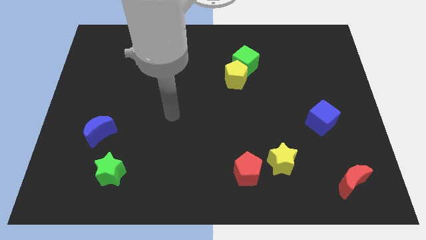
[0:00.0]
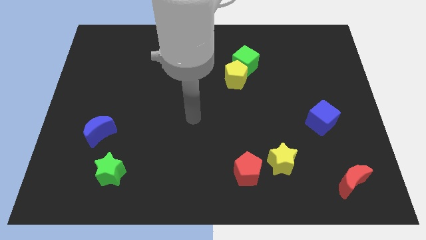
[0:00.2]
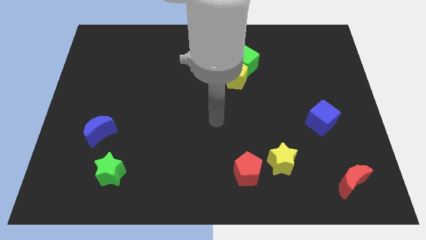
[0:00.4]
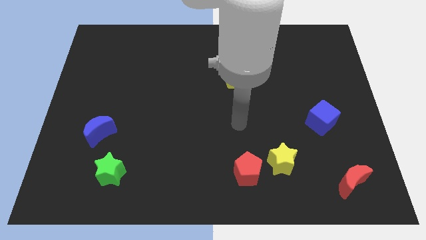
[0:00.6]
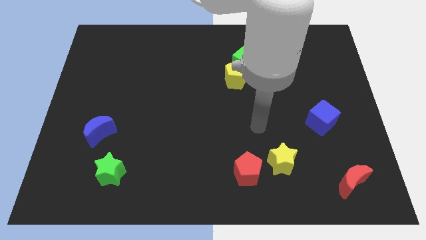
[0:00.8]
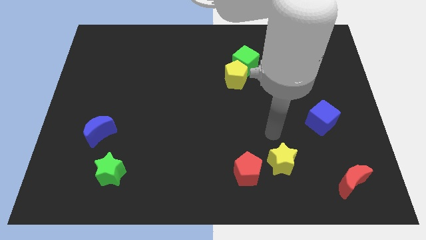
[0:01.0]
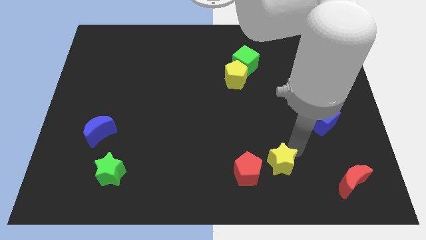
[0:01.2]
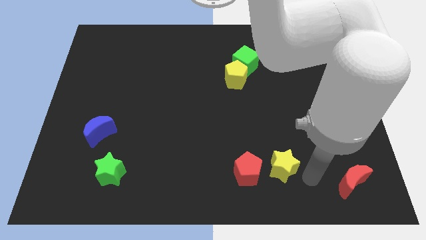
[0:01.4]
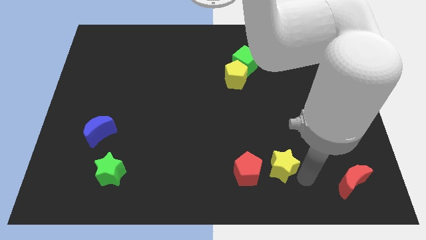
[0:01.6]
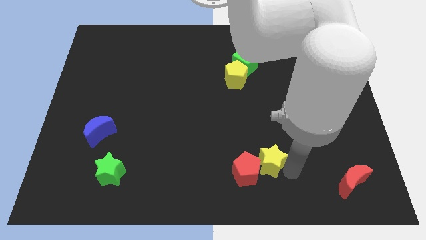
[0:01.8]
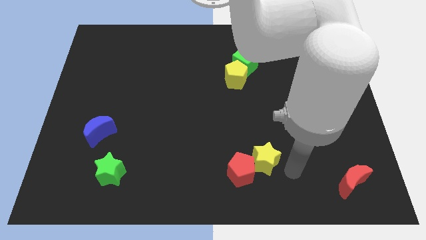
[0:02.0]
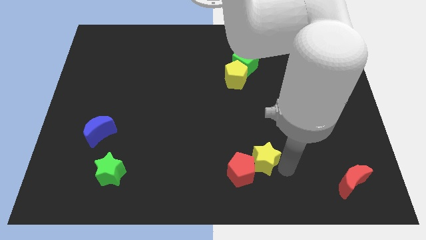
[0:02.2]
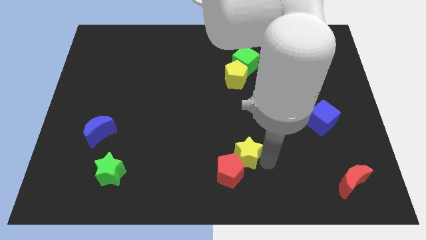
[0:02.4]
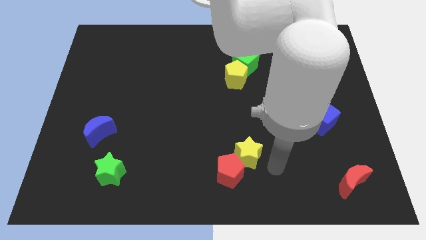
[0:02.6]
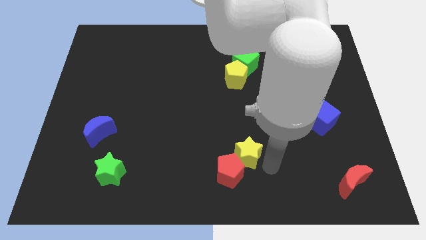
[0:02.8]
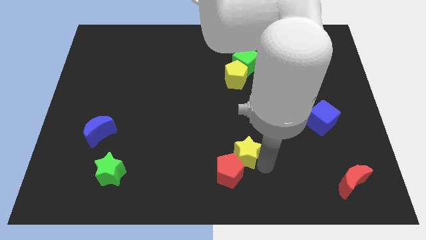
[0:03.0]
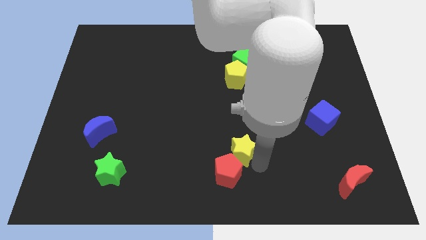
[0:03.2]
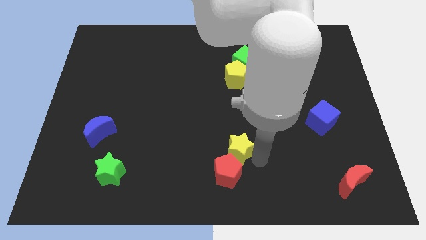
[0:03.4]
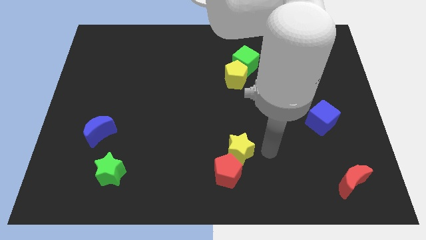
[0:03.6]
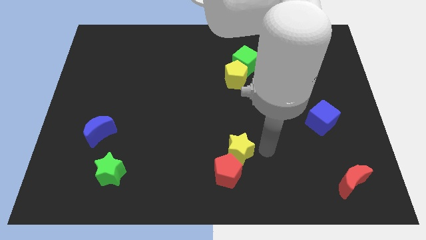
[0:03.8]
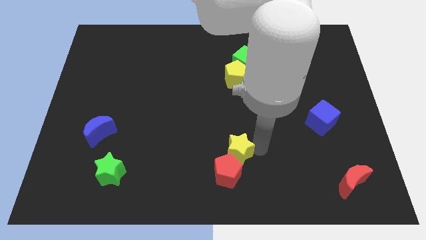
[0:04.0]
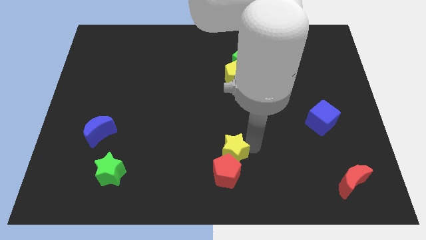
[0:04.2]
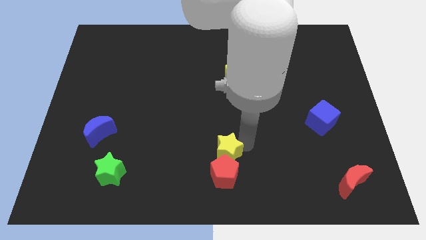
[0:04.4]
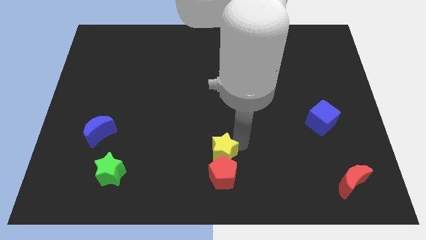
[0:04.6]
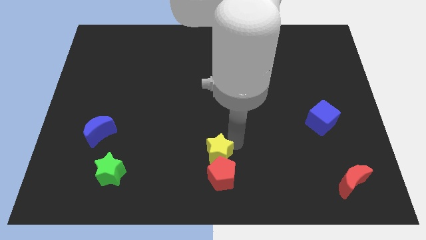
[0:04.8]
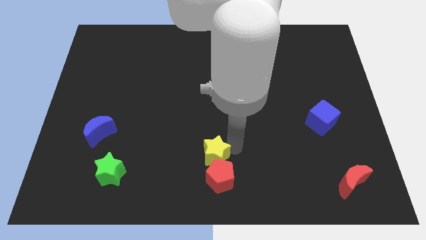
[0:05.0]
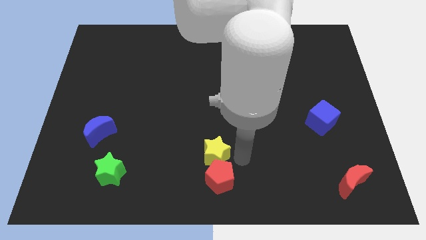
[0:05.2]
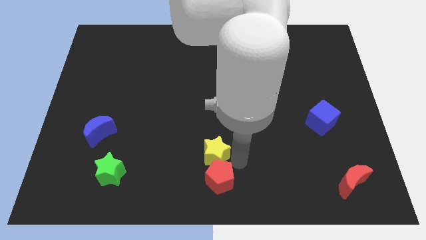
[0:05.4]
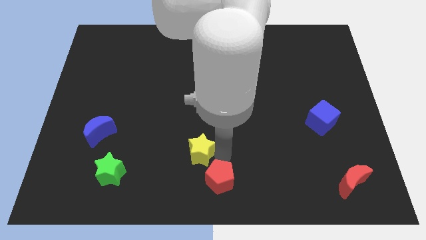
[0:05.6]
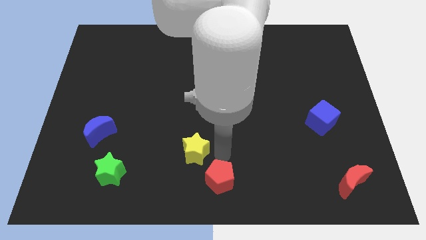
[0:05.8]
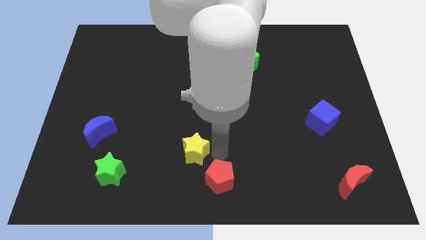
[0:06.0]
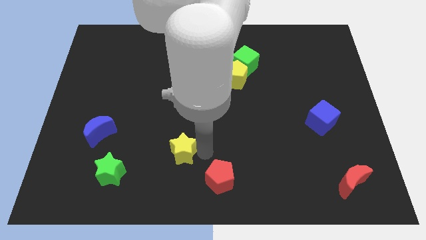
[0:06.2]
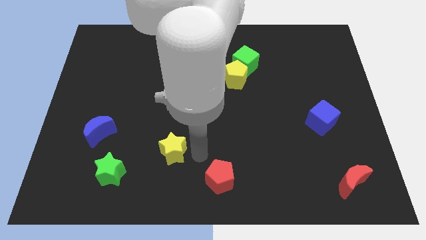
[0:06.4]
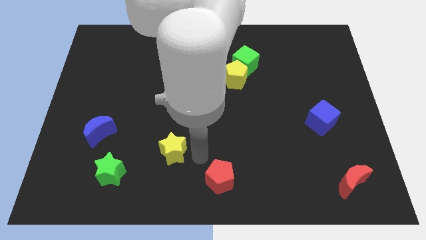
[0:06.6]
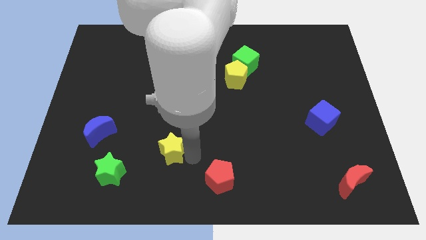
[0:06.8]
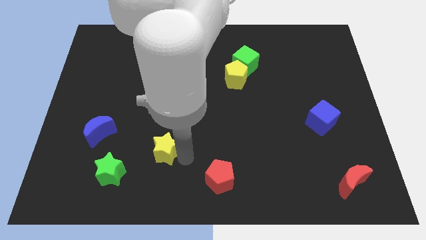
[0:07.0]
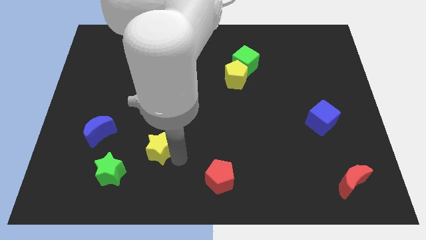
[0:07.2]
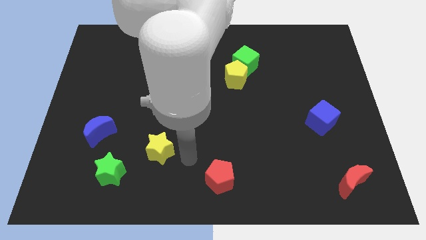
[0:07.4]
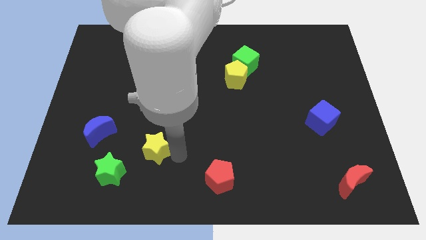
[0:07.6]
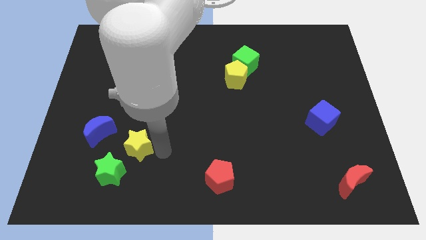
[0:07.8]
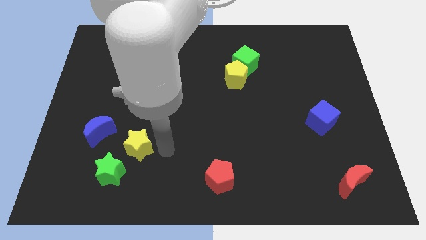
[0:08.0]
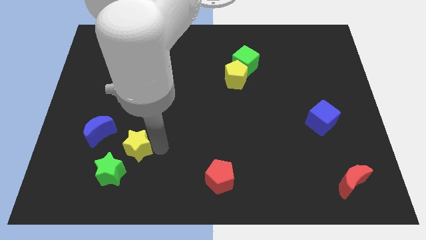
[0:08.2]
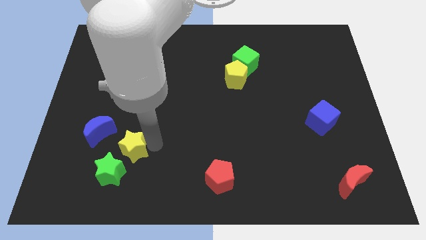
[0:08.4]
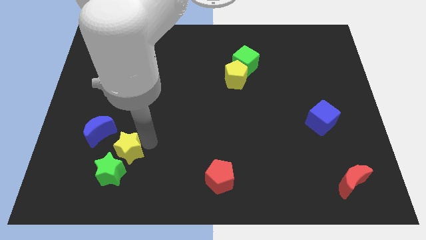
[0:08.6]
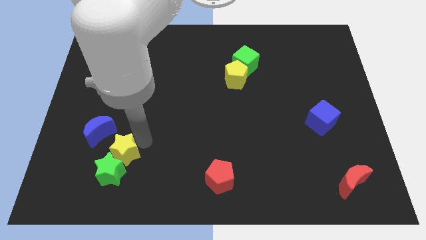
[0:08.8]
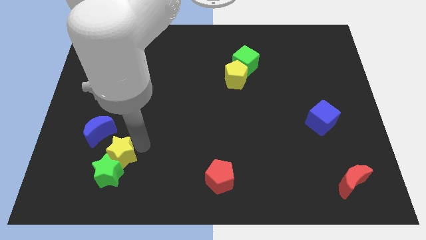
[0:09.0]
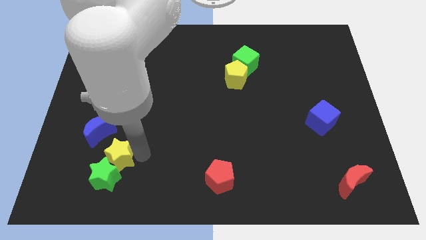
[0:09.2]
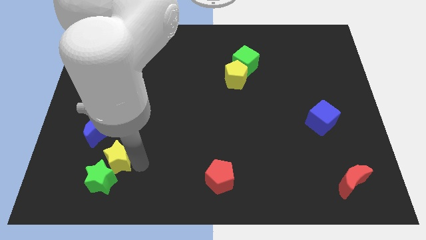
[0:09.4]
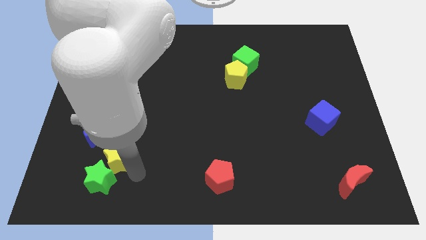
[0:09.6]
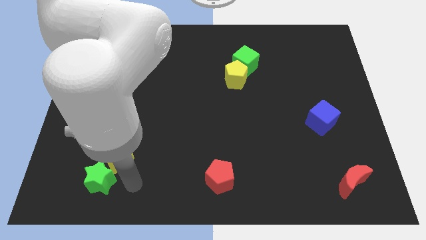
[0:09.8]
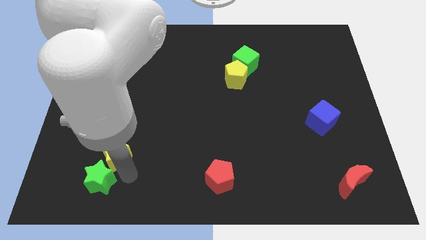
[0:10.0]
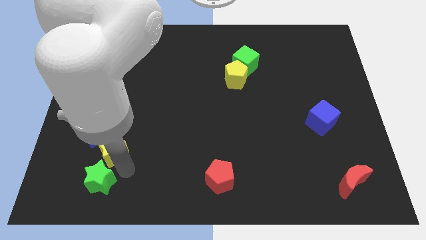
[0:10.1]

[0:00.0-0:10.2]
move the yellow star below the blue moon

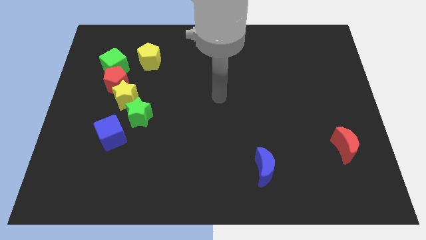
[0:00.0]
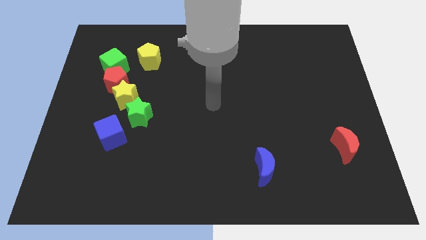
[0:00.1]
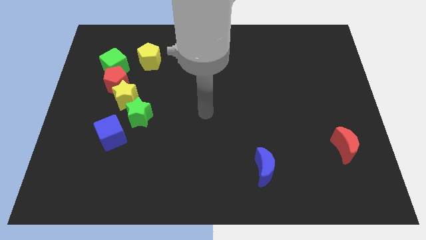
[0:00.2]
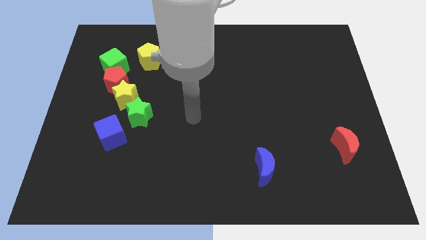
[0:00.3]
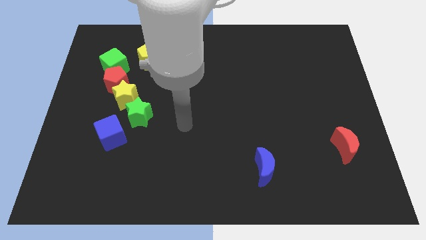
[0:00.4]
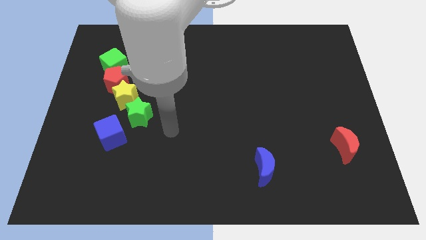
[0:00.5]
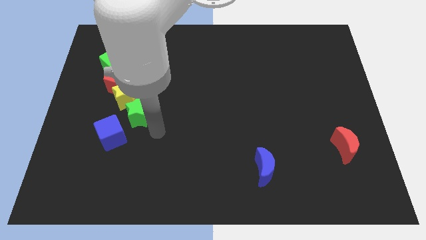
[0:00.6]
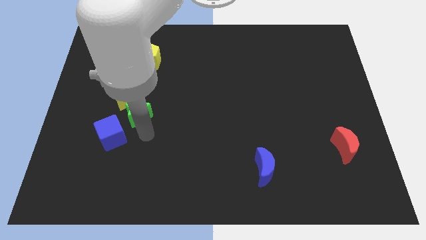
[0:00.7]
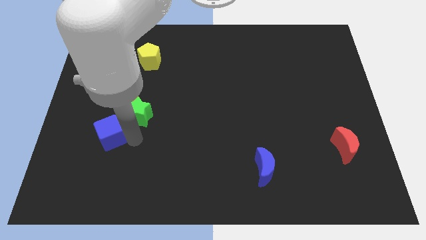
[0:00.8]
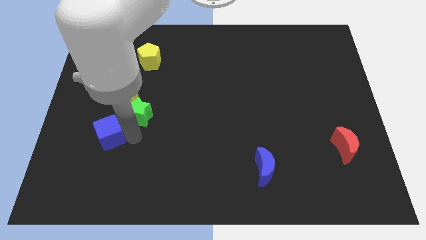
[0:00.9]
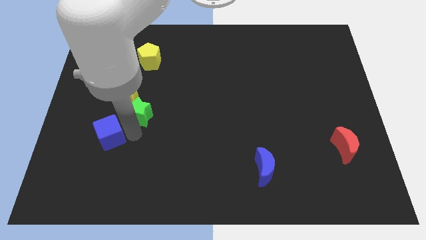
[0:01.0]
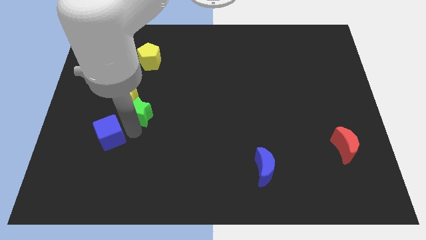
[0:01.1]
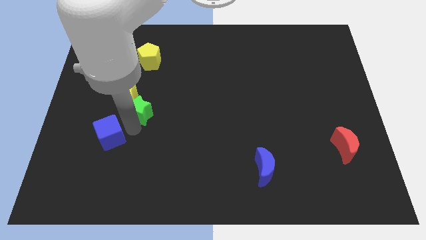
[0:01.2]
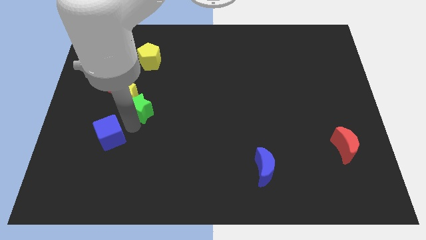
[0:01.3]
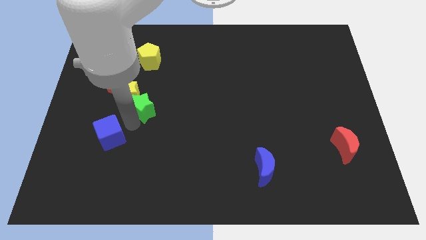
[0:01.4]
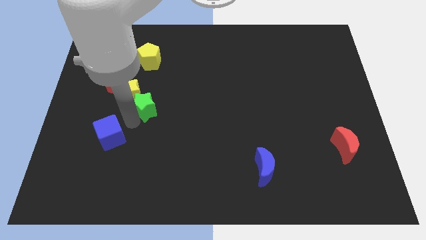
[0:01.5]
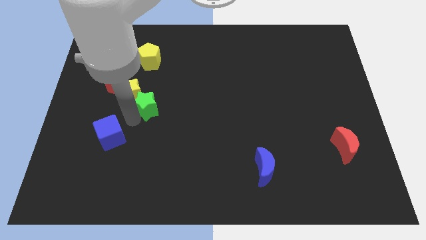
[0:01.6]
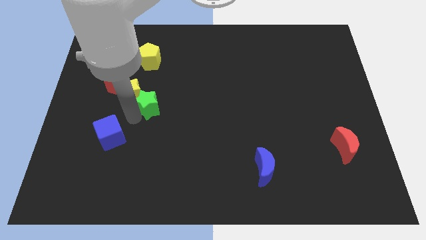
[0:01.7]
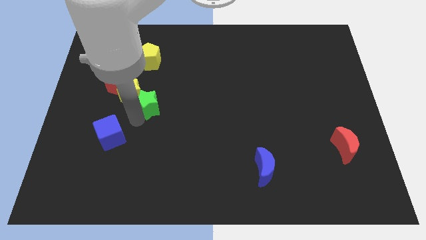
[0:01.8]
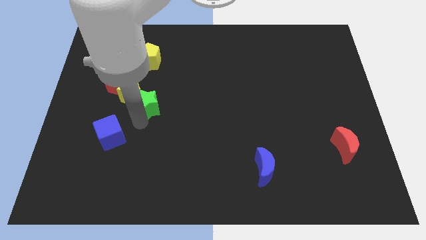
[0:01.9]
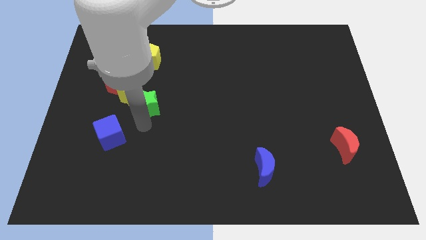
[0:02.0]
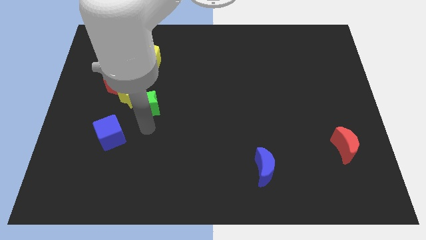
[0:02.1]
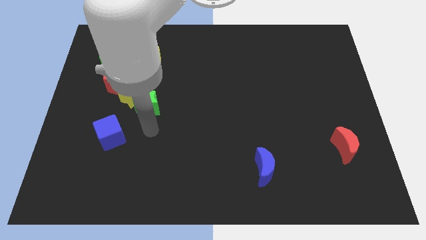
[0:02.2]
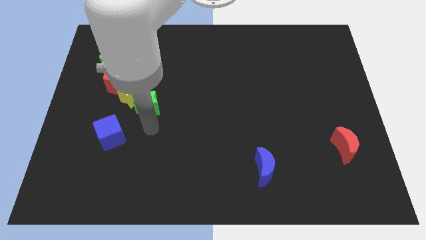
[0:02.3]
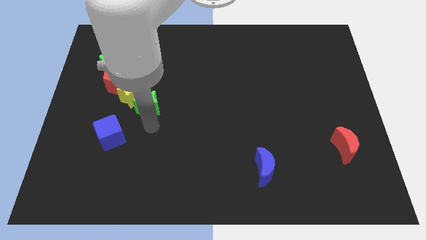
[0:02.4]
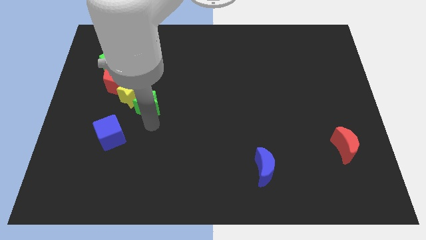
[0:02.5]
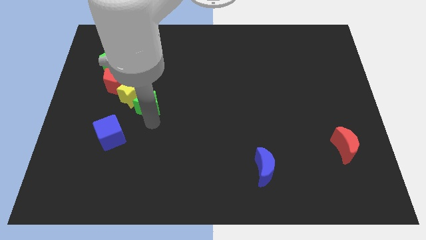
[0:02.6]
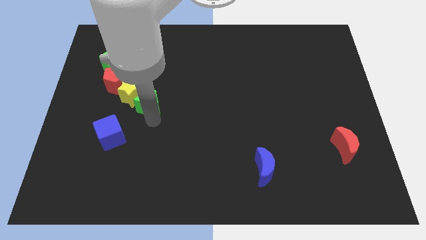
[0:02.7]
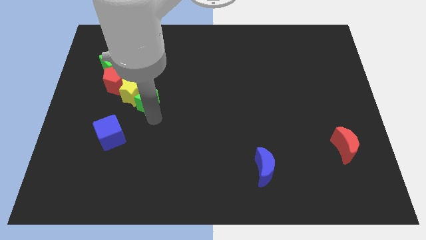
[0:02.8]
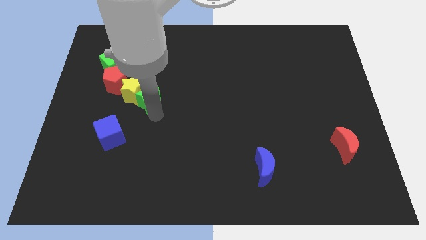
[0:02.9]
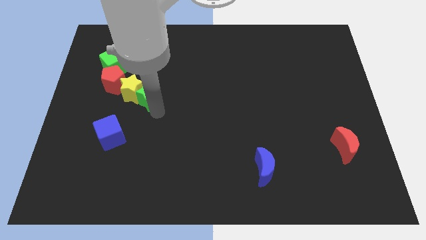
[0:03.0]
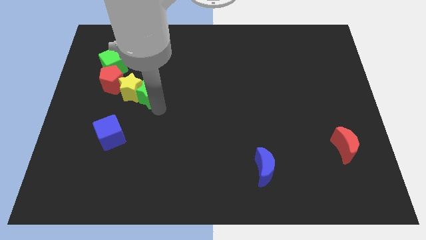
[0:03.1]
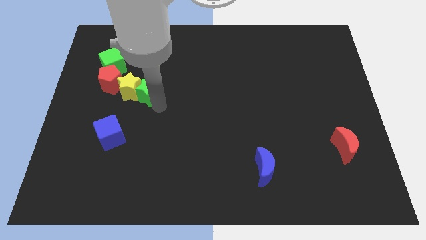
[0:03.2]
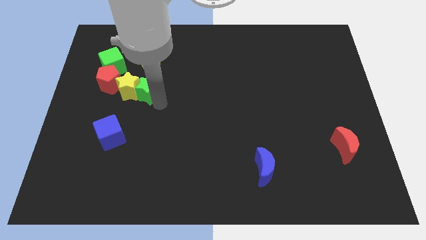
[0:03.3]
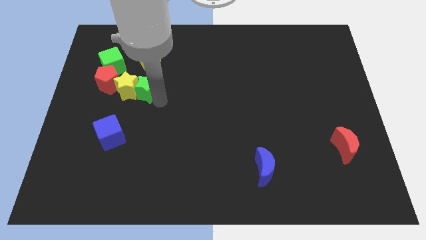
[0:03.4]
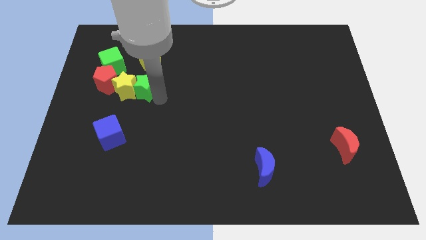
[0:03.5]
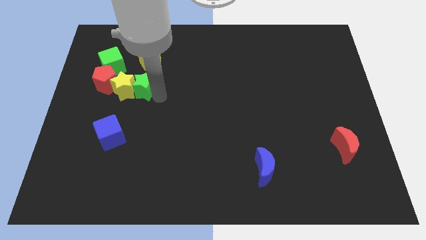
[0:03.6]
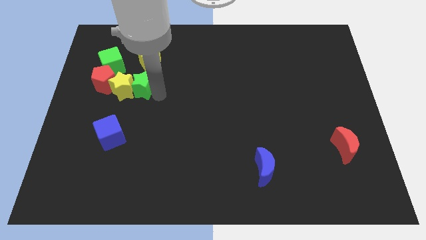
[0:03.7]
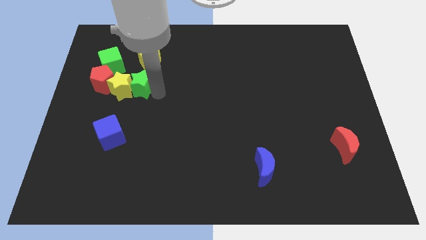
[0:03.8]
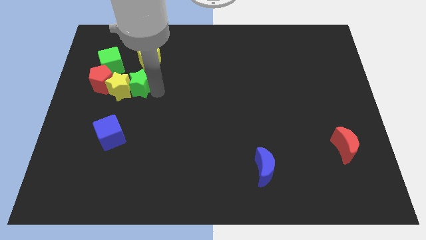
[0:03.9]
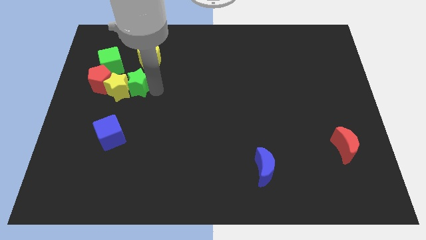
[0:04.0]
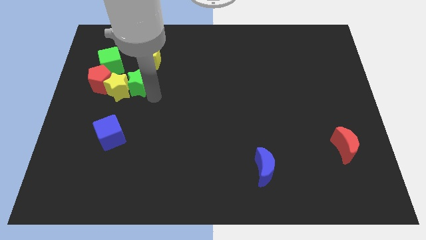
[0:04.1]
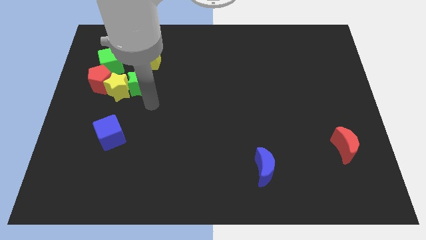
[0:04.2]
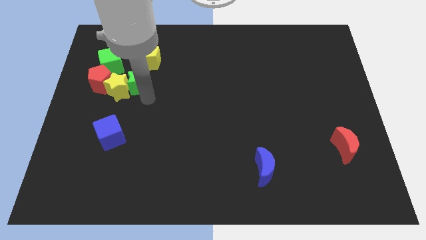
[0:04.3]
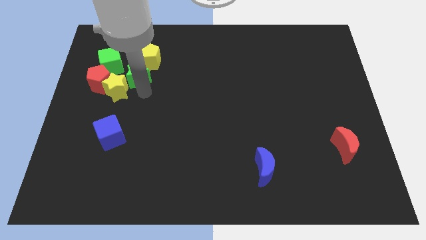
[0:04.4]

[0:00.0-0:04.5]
push the green star to the top of the yellow star
